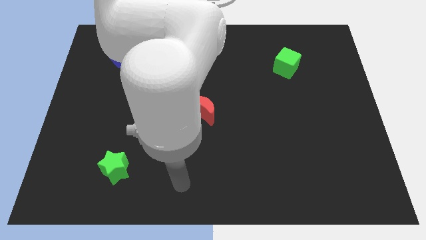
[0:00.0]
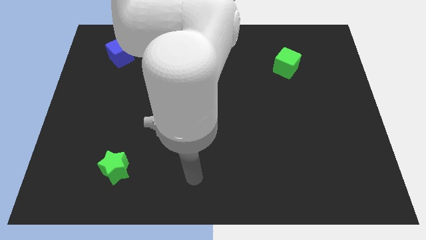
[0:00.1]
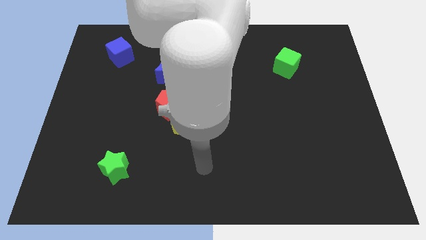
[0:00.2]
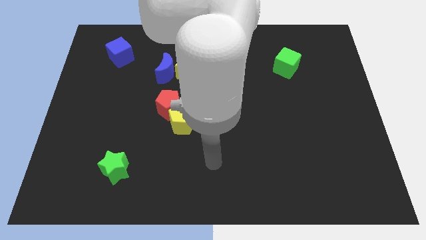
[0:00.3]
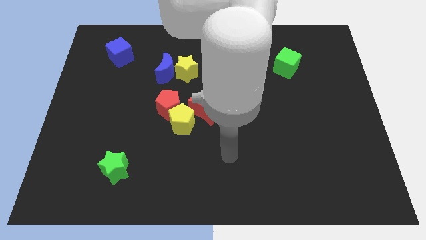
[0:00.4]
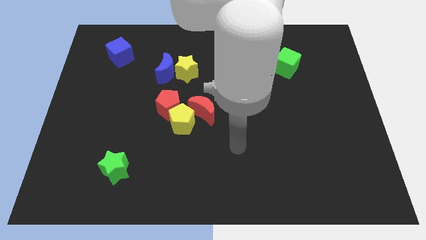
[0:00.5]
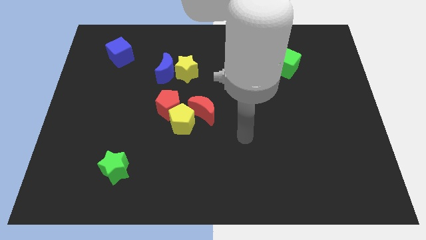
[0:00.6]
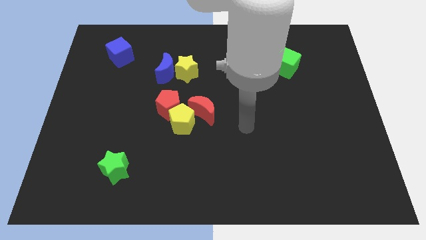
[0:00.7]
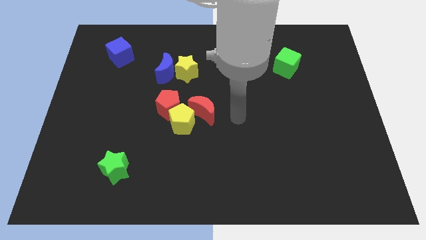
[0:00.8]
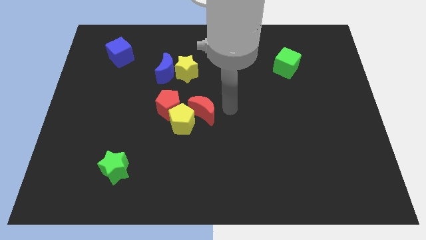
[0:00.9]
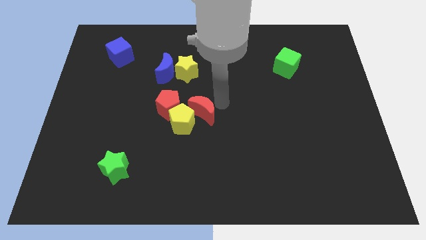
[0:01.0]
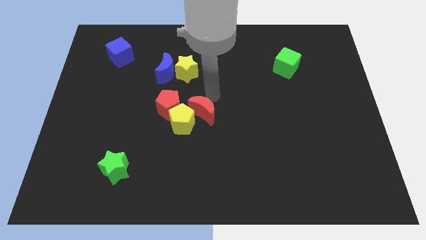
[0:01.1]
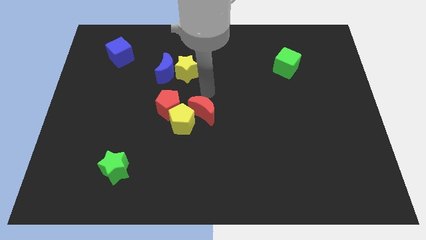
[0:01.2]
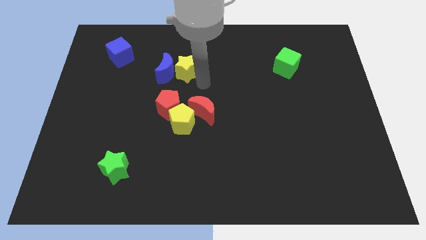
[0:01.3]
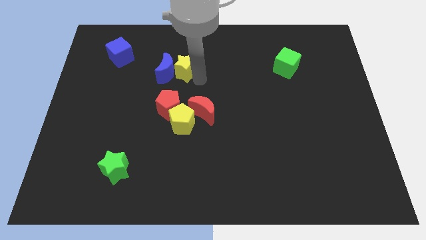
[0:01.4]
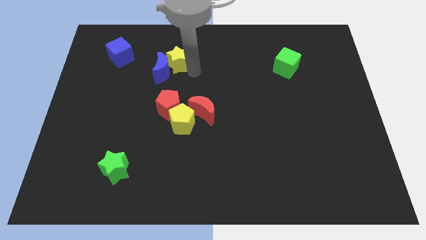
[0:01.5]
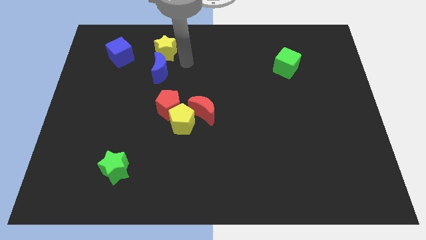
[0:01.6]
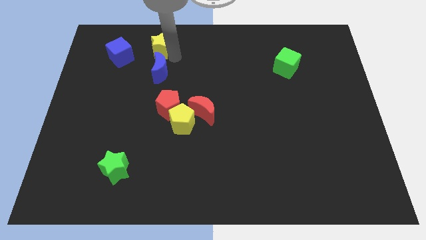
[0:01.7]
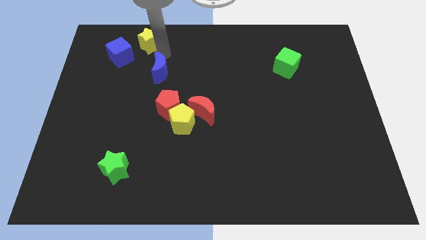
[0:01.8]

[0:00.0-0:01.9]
pull the blue moon apart from the yellow star

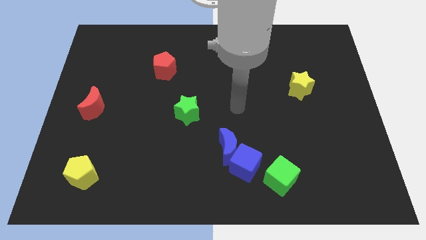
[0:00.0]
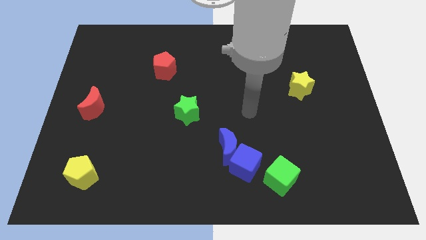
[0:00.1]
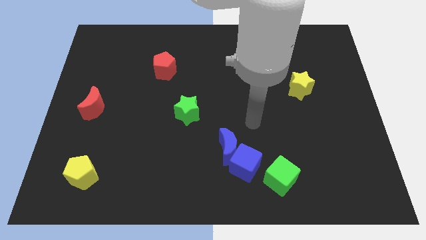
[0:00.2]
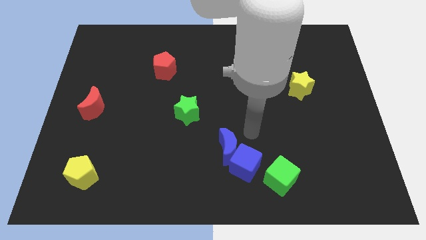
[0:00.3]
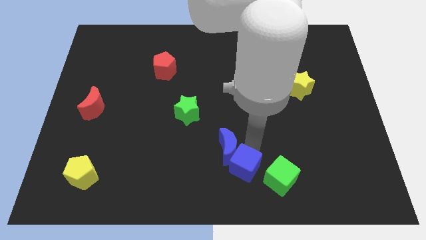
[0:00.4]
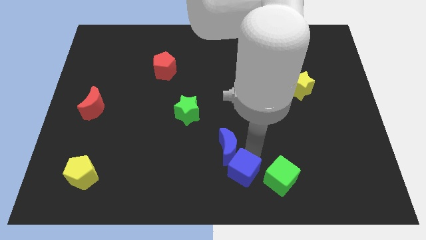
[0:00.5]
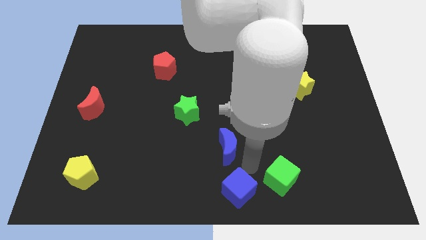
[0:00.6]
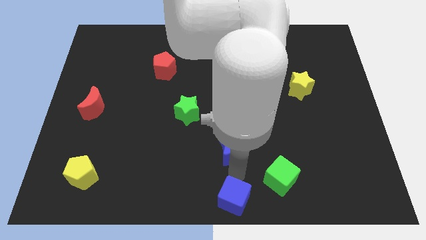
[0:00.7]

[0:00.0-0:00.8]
pull the blue moon apart from the blue cube

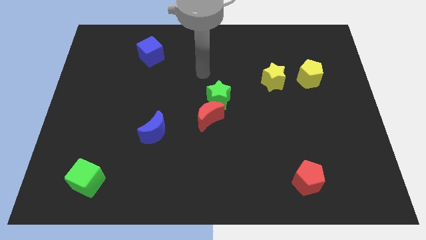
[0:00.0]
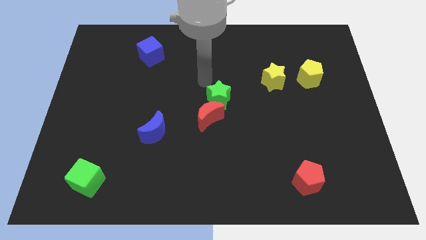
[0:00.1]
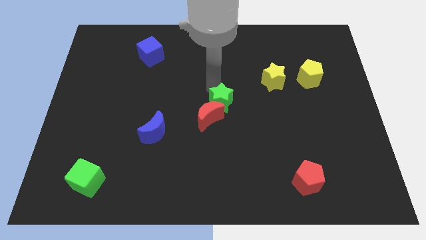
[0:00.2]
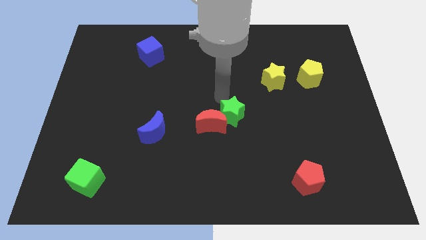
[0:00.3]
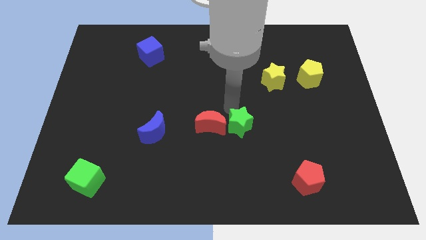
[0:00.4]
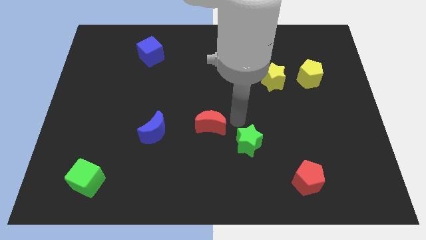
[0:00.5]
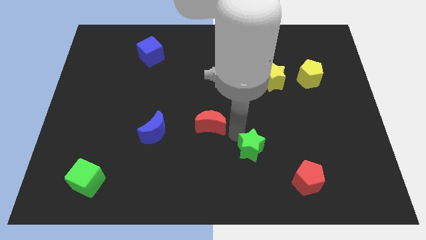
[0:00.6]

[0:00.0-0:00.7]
pull the red moon apart from the green star

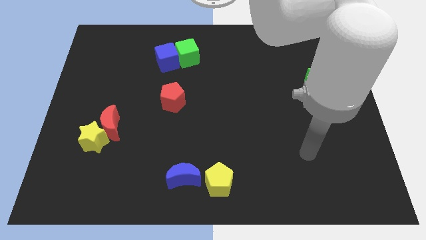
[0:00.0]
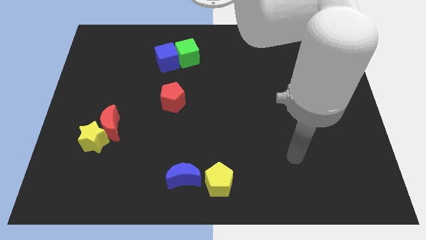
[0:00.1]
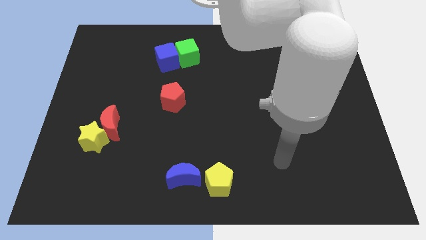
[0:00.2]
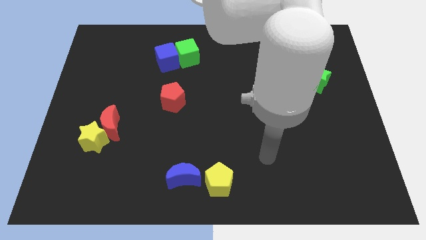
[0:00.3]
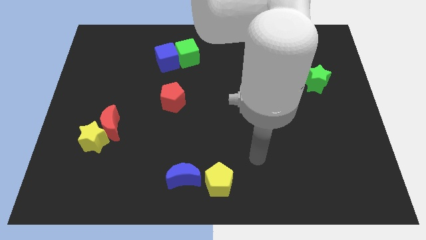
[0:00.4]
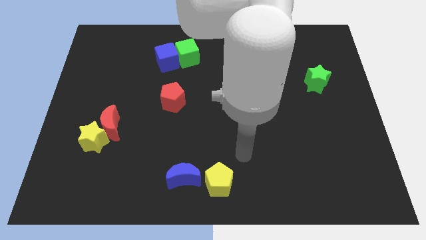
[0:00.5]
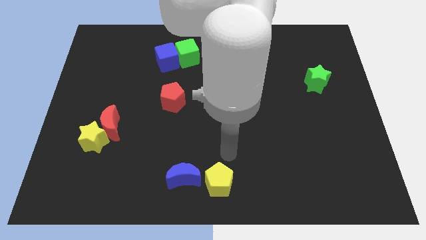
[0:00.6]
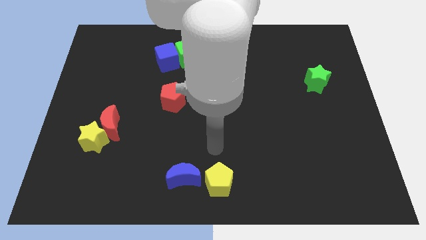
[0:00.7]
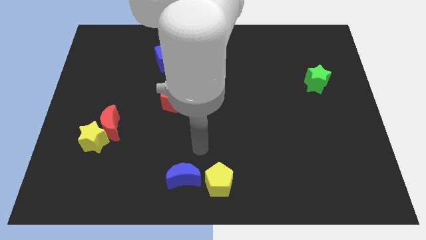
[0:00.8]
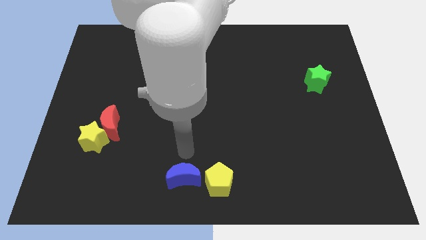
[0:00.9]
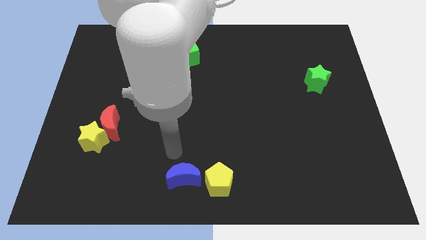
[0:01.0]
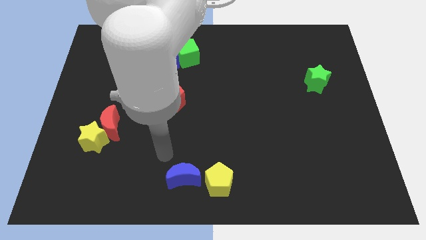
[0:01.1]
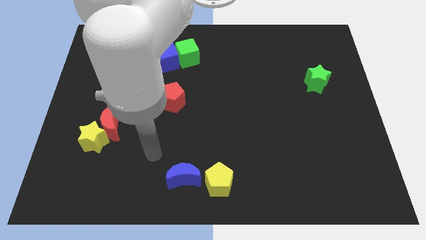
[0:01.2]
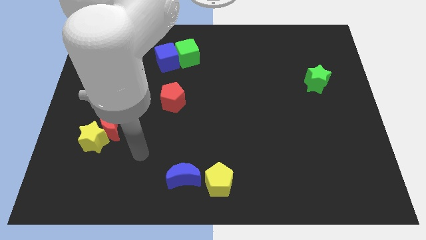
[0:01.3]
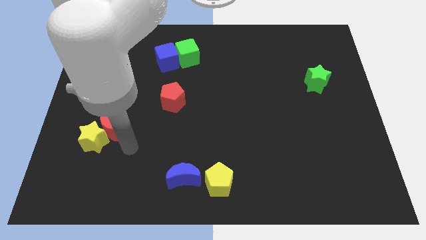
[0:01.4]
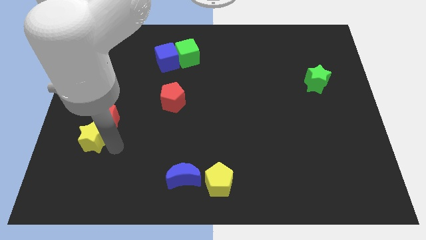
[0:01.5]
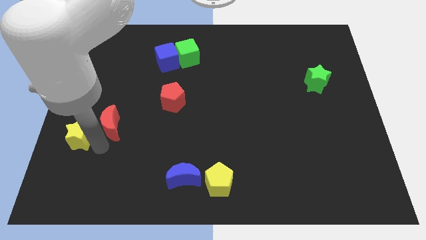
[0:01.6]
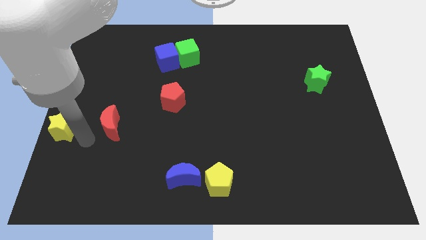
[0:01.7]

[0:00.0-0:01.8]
pull the red moon apart from the yellow star

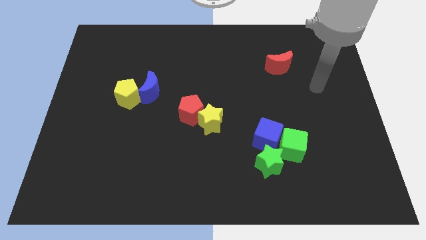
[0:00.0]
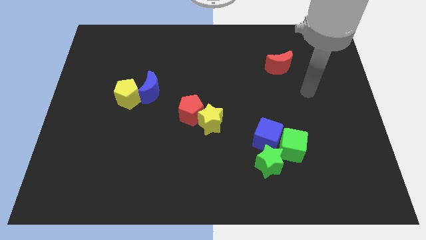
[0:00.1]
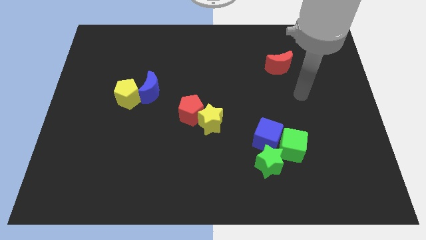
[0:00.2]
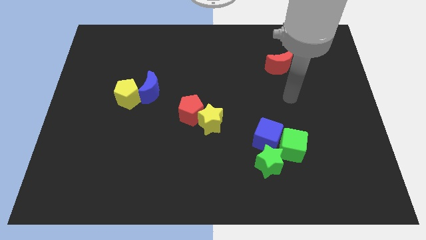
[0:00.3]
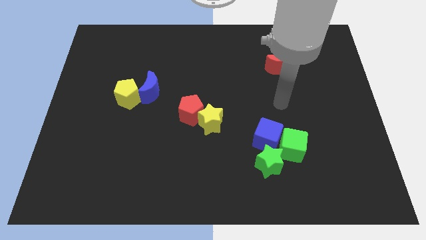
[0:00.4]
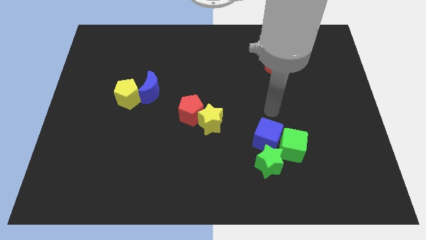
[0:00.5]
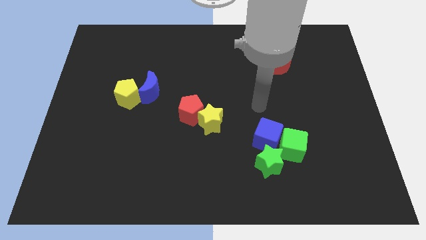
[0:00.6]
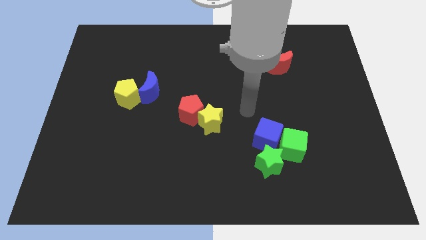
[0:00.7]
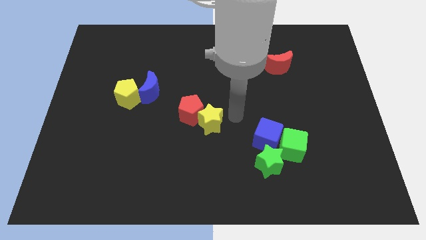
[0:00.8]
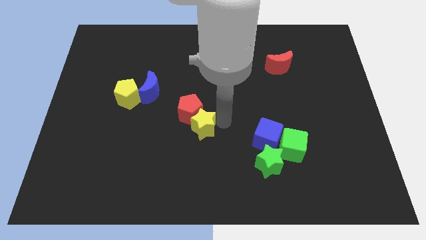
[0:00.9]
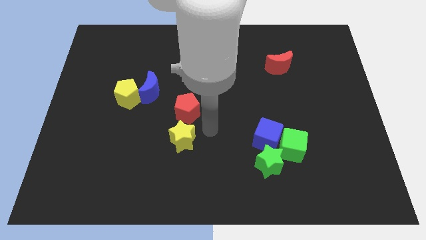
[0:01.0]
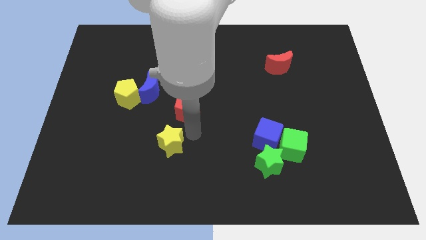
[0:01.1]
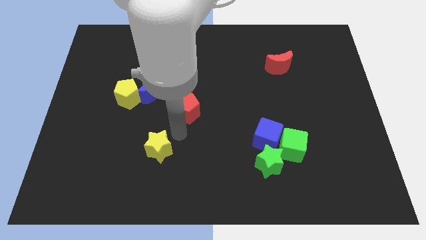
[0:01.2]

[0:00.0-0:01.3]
move the red pentagon away from the yellow star

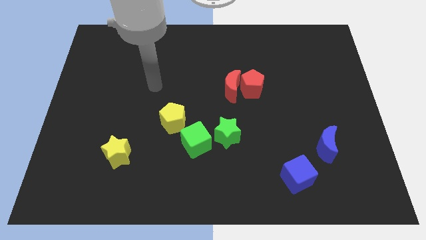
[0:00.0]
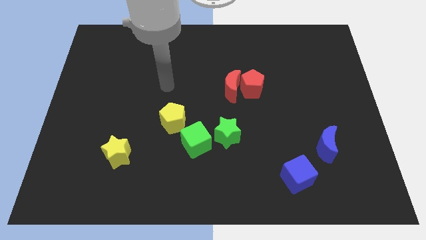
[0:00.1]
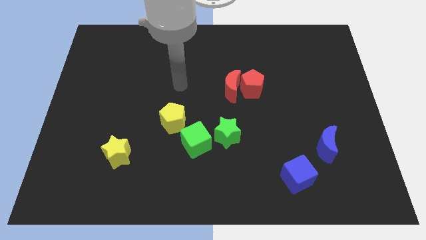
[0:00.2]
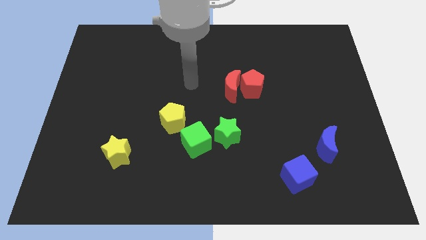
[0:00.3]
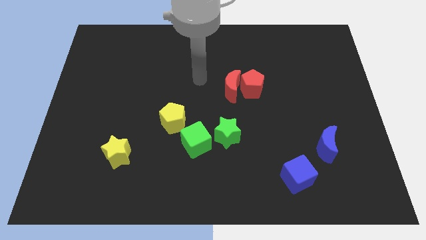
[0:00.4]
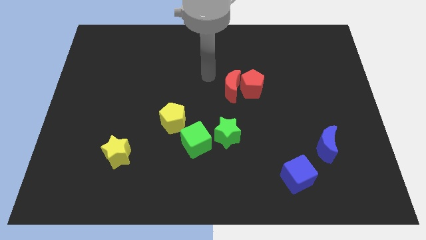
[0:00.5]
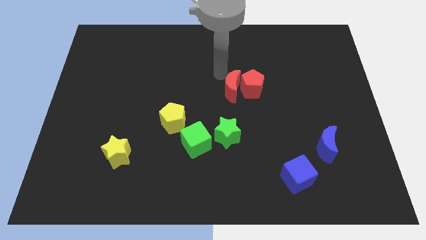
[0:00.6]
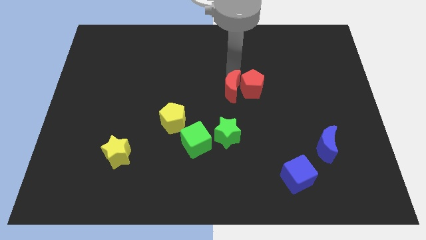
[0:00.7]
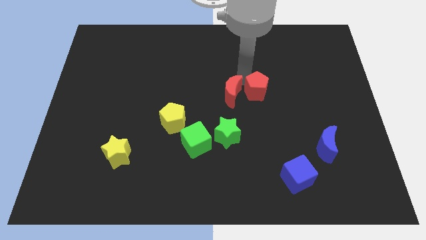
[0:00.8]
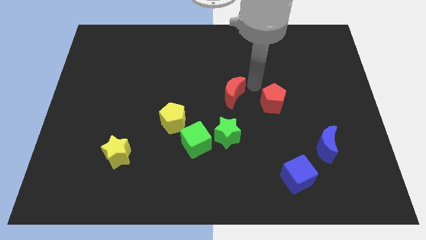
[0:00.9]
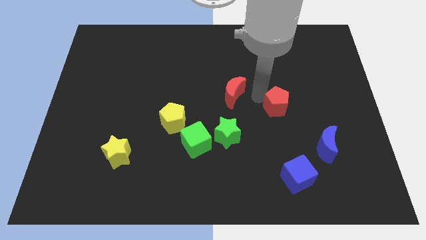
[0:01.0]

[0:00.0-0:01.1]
separate the red moon from the red pentagon

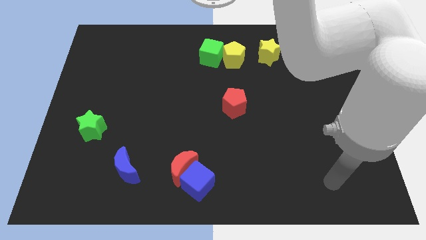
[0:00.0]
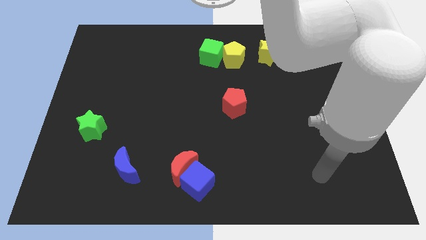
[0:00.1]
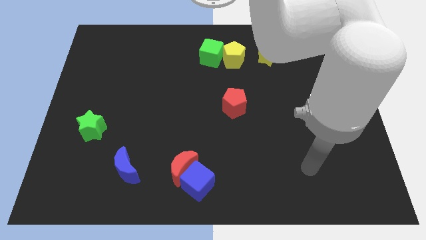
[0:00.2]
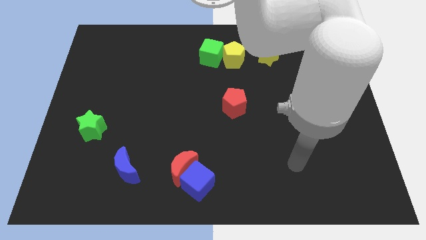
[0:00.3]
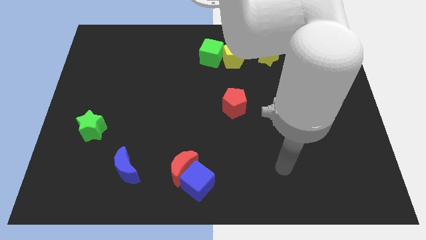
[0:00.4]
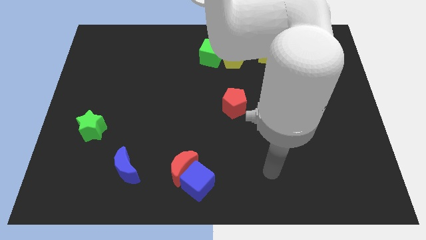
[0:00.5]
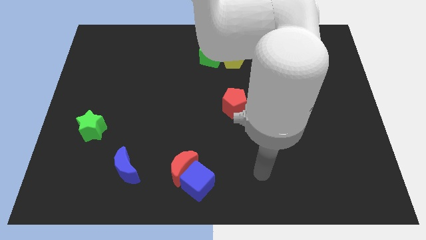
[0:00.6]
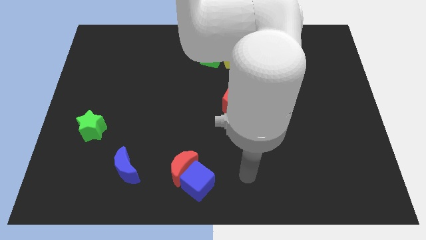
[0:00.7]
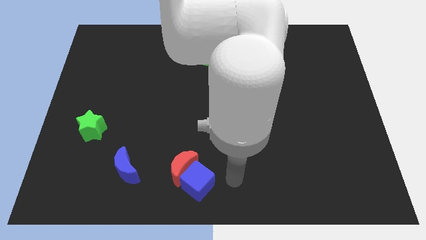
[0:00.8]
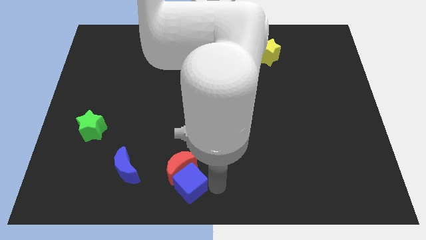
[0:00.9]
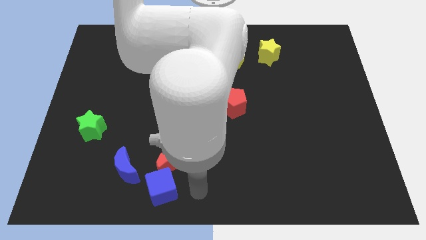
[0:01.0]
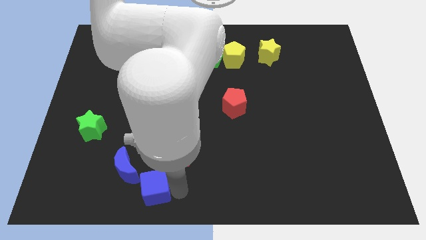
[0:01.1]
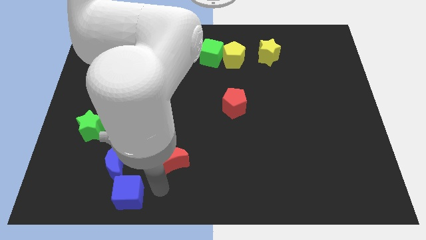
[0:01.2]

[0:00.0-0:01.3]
move the red moon away from the blue cube

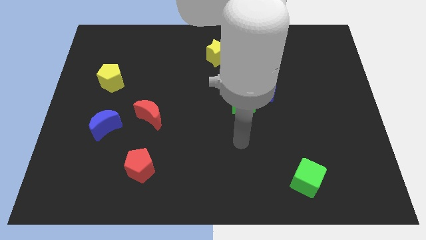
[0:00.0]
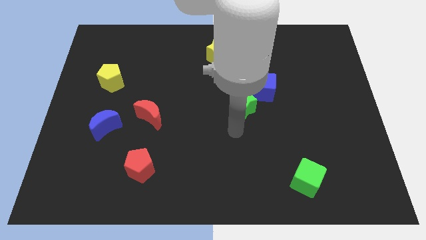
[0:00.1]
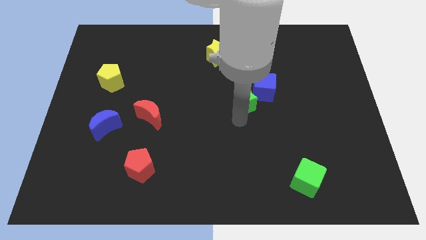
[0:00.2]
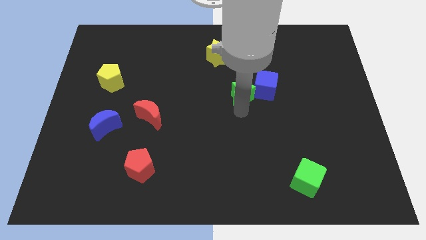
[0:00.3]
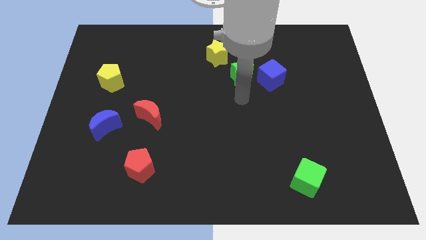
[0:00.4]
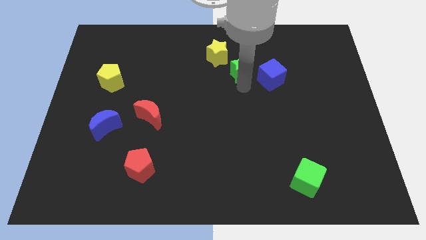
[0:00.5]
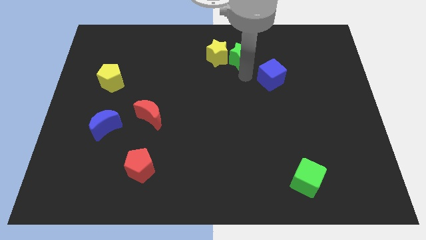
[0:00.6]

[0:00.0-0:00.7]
separate the blue cube from the green star
